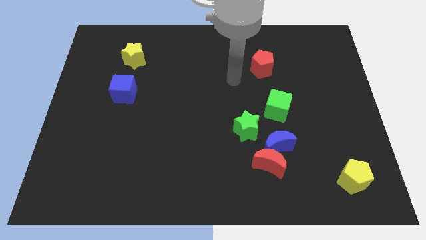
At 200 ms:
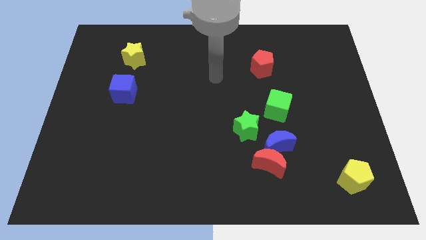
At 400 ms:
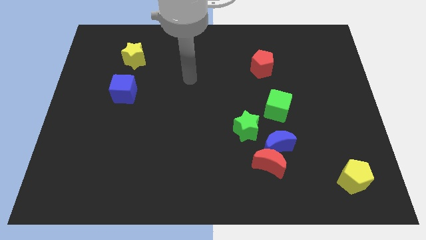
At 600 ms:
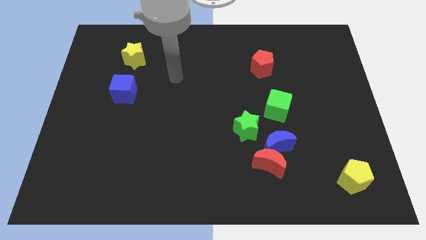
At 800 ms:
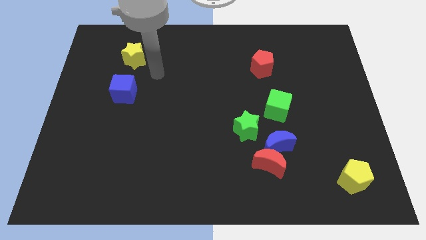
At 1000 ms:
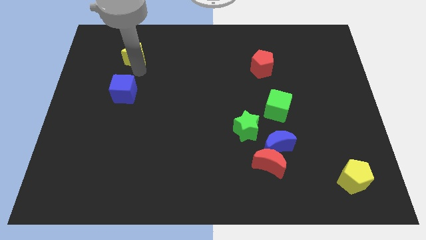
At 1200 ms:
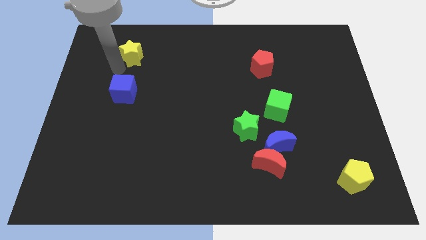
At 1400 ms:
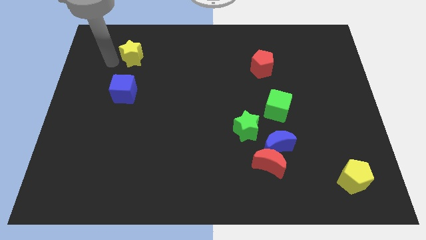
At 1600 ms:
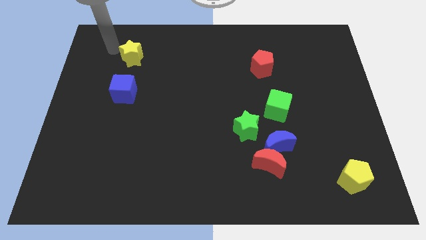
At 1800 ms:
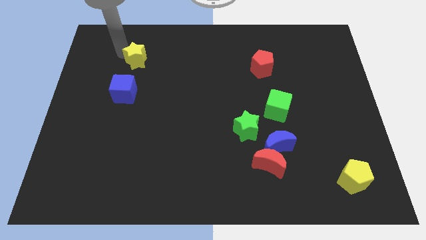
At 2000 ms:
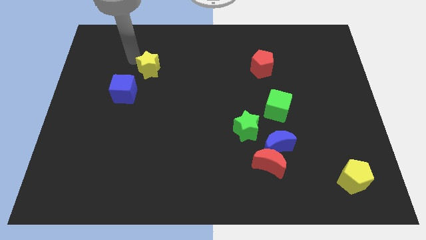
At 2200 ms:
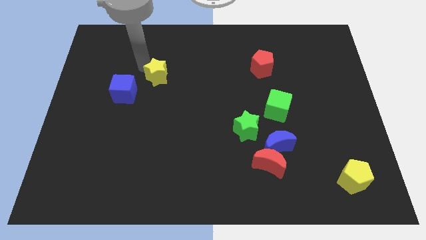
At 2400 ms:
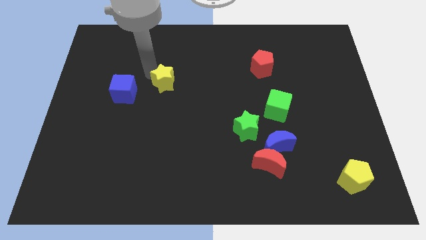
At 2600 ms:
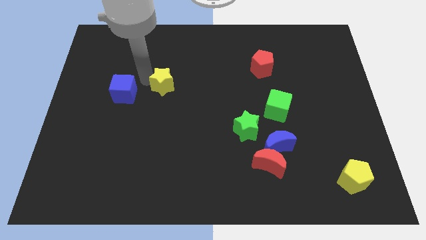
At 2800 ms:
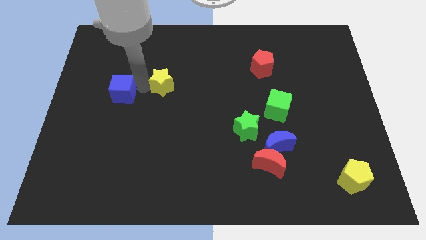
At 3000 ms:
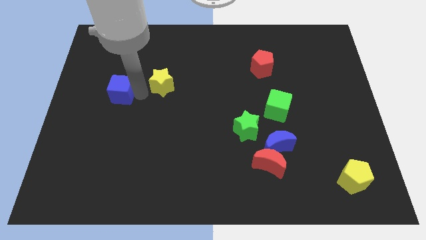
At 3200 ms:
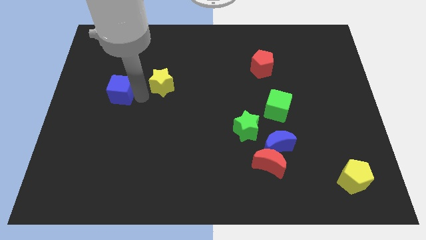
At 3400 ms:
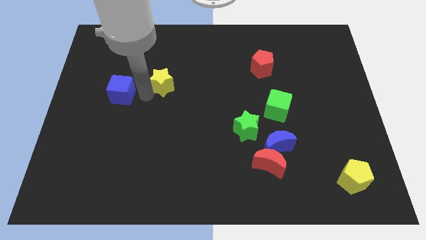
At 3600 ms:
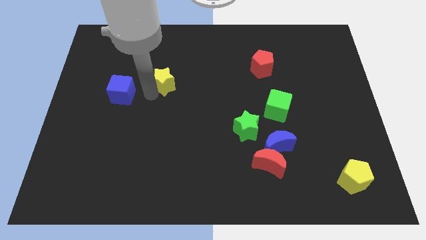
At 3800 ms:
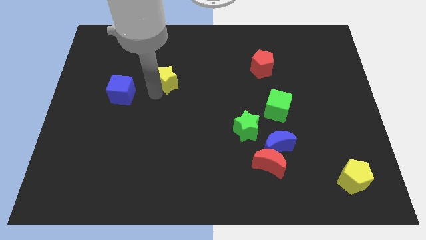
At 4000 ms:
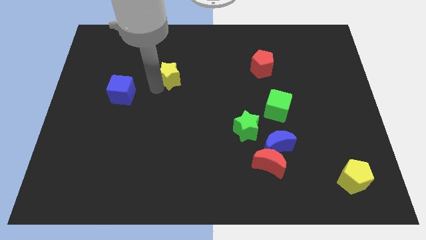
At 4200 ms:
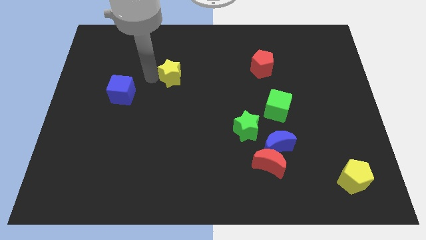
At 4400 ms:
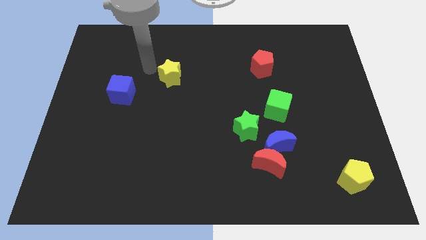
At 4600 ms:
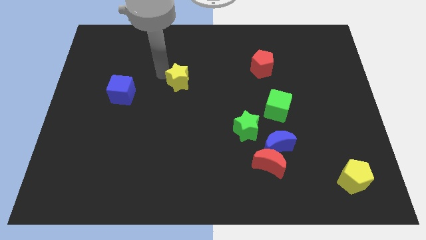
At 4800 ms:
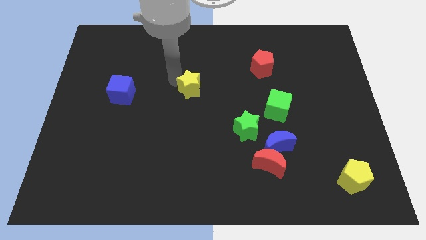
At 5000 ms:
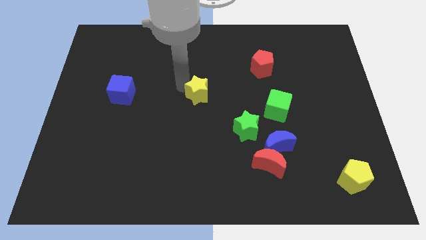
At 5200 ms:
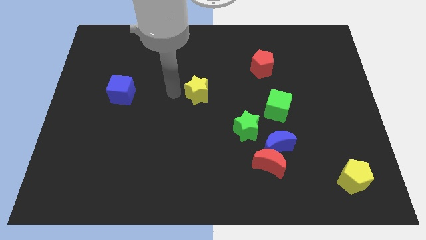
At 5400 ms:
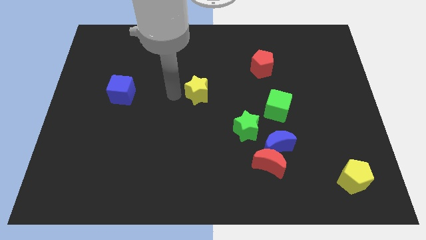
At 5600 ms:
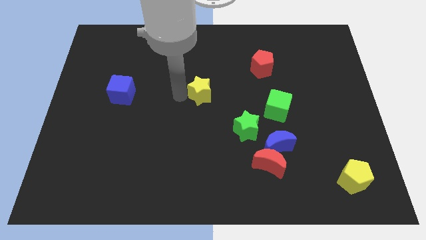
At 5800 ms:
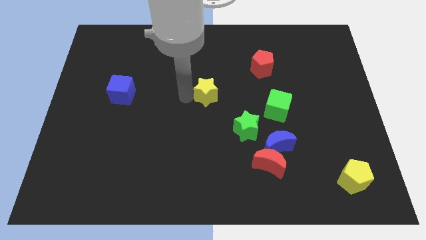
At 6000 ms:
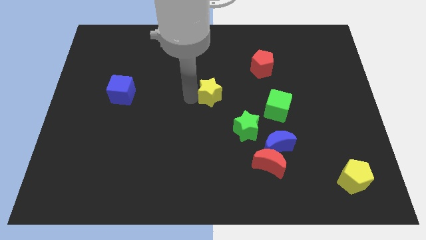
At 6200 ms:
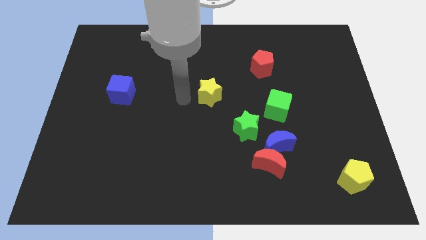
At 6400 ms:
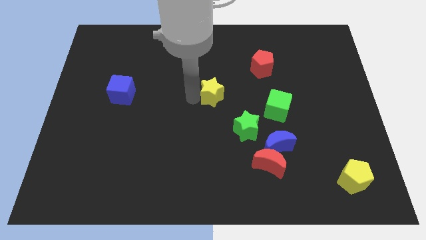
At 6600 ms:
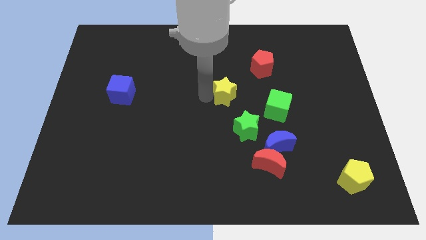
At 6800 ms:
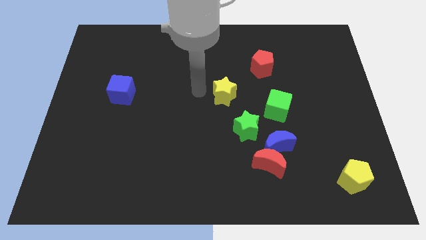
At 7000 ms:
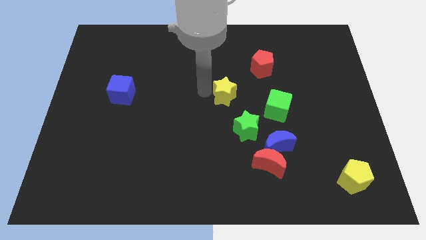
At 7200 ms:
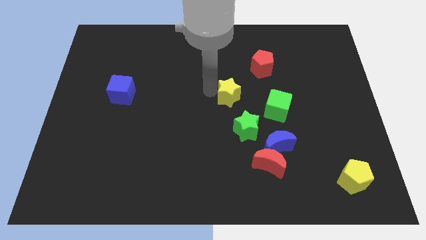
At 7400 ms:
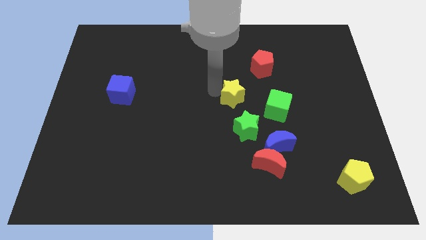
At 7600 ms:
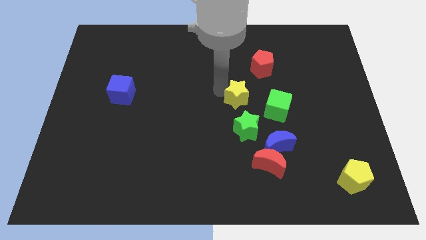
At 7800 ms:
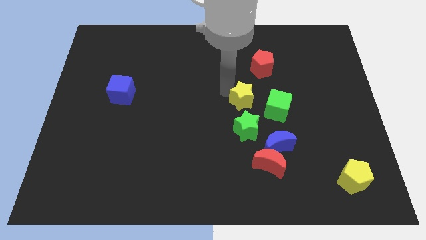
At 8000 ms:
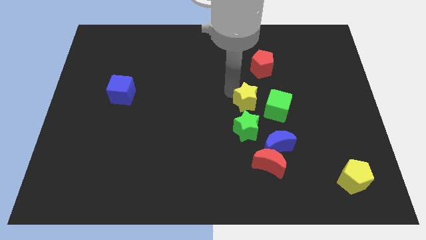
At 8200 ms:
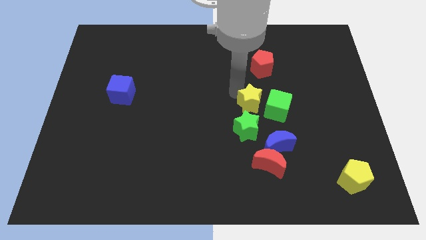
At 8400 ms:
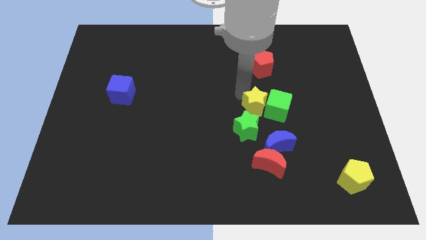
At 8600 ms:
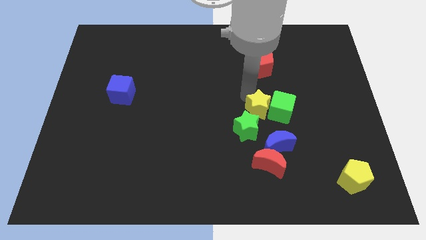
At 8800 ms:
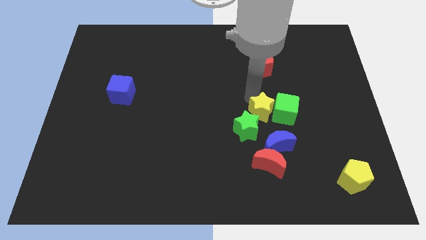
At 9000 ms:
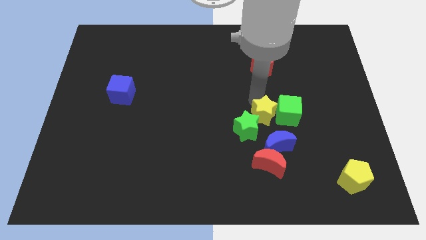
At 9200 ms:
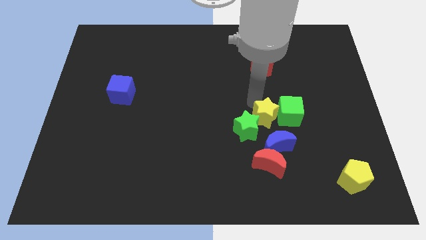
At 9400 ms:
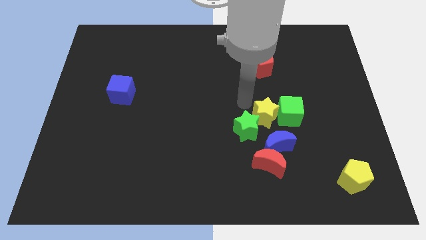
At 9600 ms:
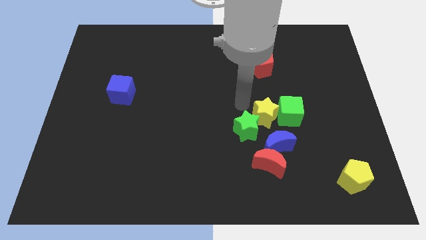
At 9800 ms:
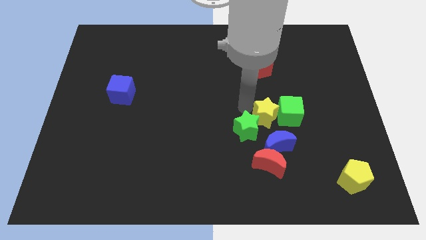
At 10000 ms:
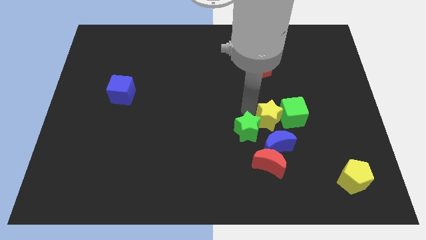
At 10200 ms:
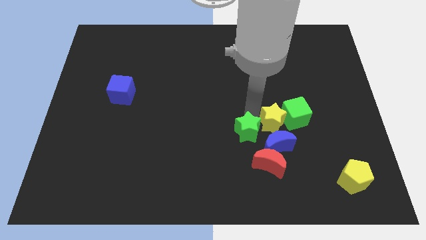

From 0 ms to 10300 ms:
move the yellow star to the top right side of the blue moon

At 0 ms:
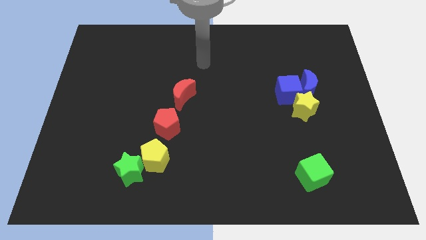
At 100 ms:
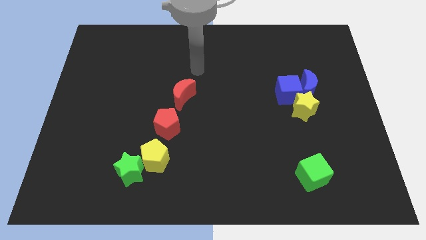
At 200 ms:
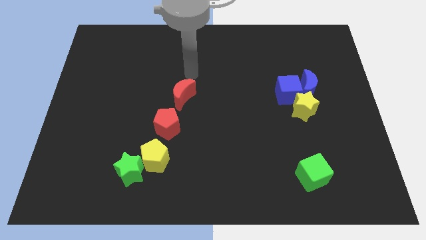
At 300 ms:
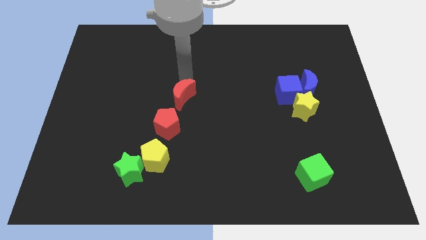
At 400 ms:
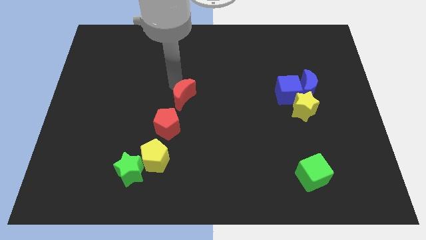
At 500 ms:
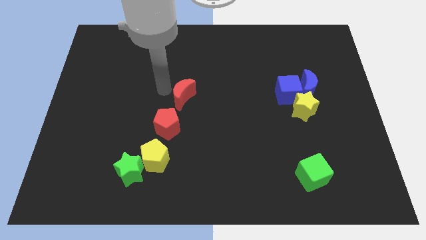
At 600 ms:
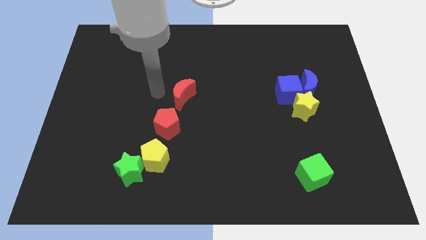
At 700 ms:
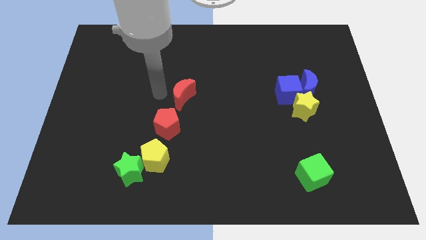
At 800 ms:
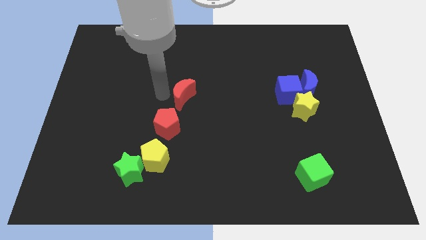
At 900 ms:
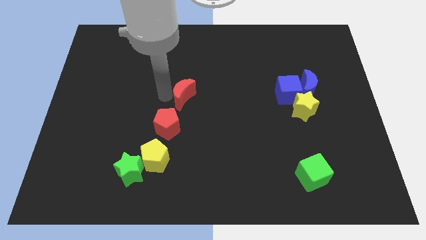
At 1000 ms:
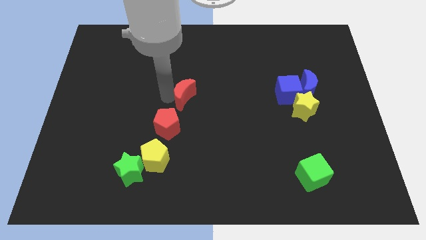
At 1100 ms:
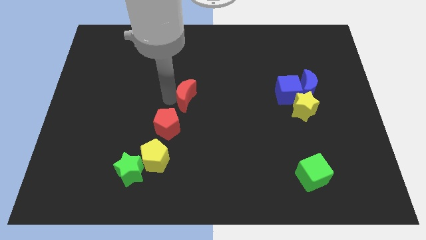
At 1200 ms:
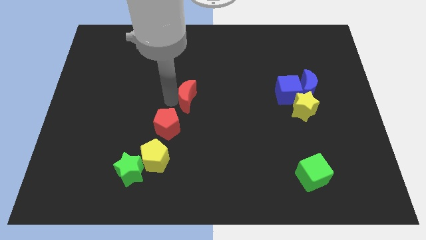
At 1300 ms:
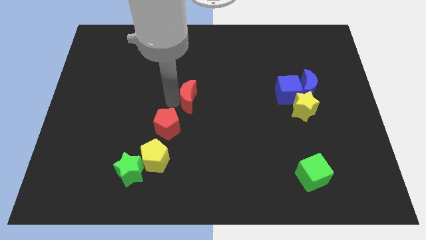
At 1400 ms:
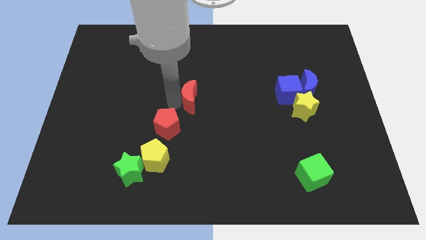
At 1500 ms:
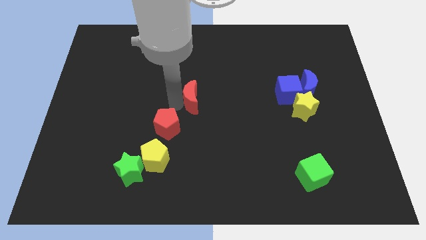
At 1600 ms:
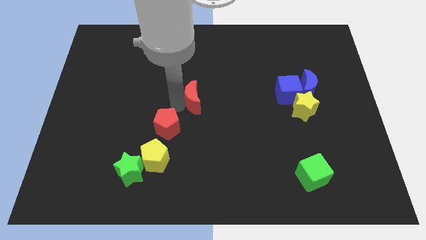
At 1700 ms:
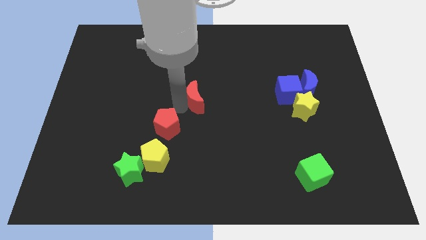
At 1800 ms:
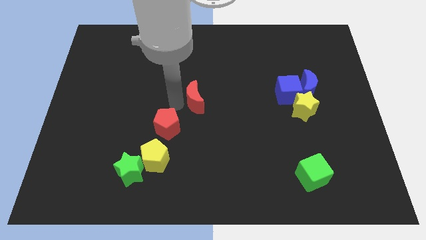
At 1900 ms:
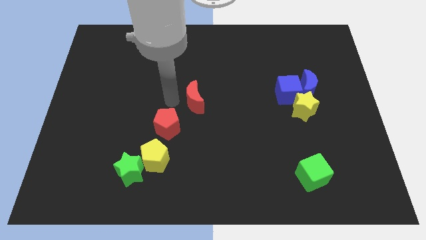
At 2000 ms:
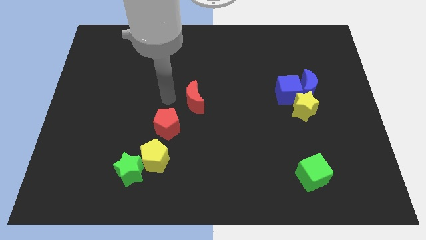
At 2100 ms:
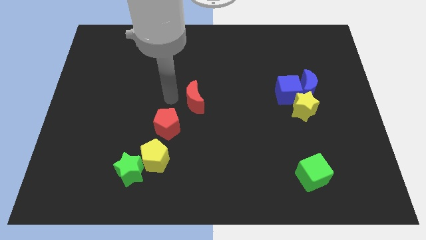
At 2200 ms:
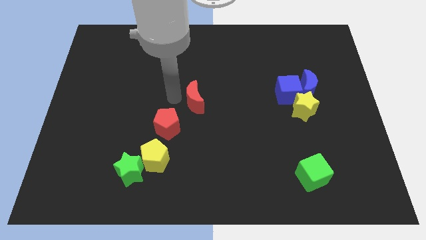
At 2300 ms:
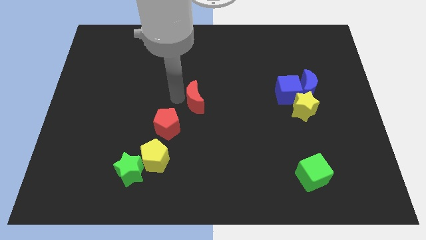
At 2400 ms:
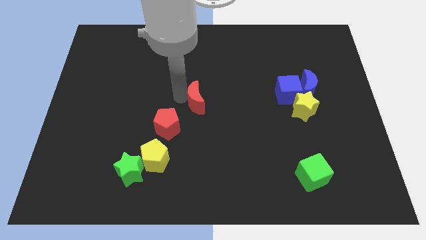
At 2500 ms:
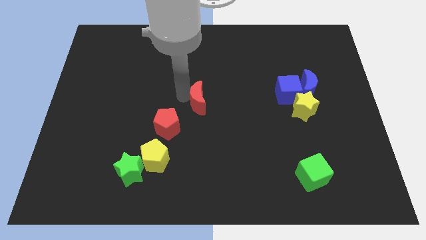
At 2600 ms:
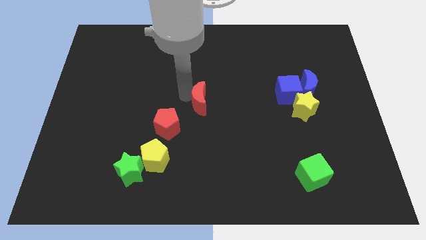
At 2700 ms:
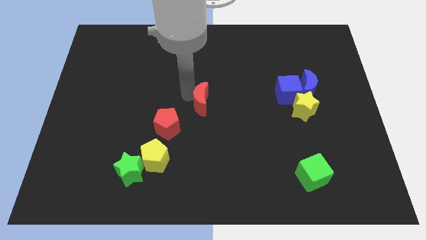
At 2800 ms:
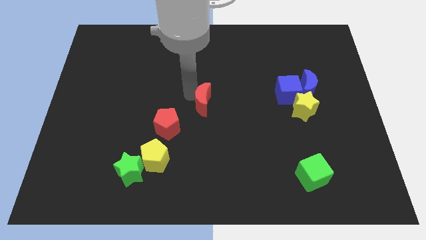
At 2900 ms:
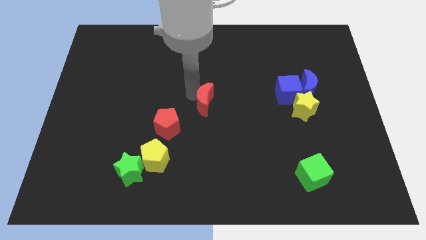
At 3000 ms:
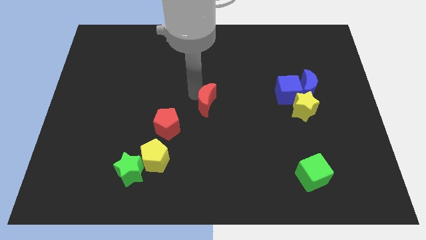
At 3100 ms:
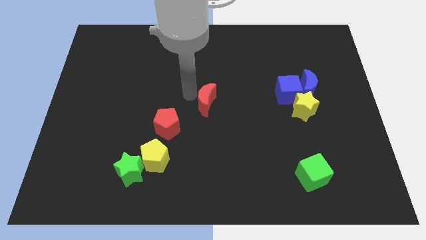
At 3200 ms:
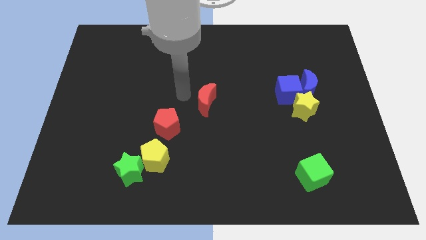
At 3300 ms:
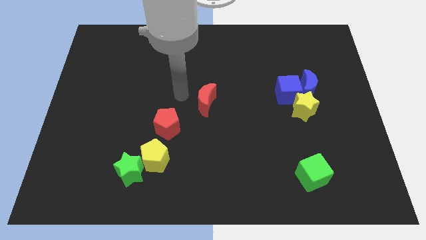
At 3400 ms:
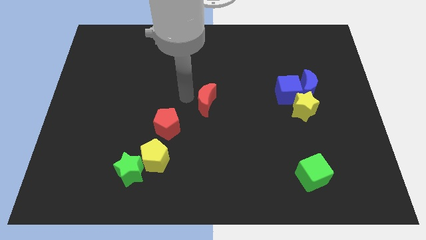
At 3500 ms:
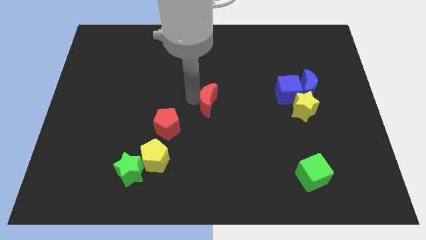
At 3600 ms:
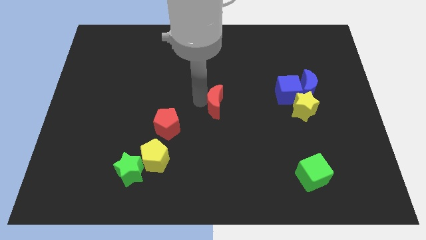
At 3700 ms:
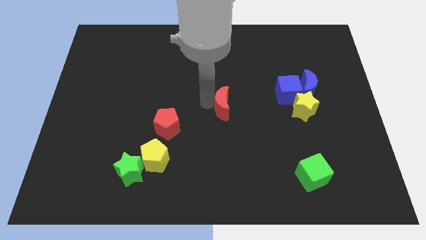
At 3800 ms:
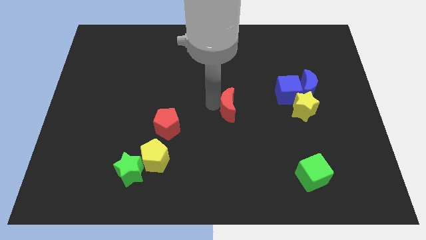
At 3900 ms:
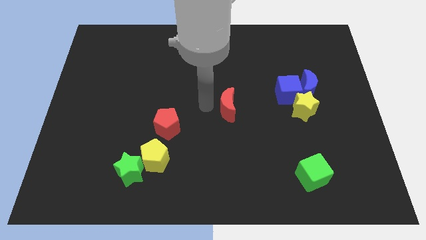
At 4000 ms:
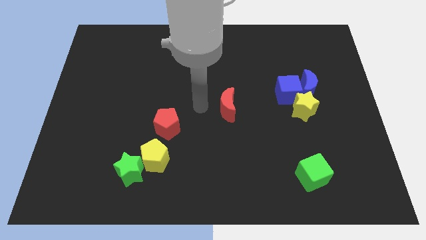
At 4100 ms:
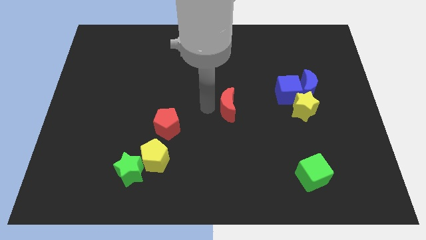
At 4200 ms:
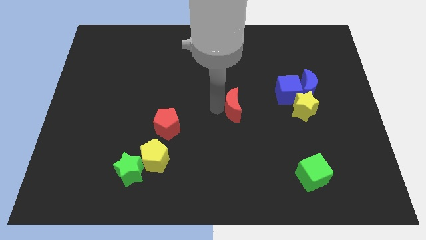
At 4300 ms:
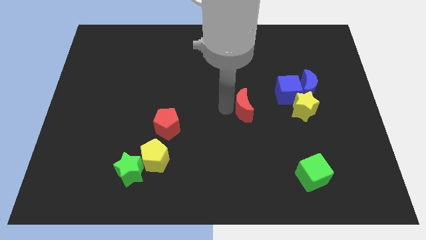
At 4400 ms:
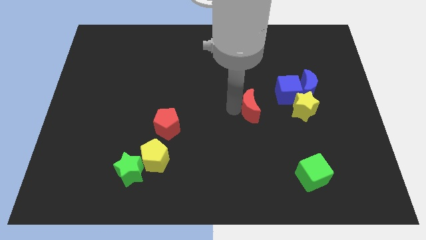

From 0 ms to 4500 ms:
push the red moon to the bottom left side of the blue cube
